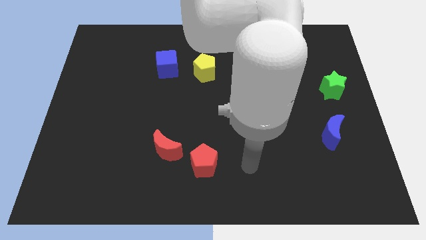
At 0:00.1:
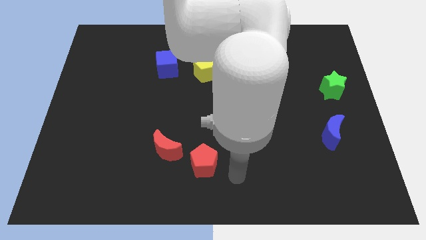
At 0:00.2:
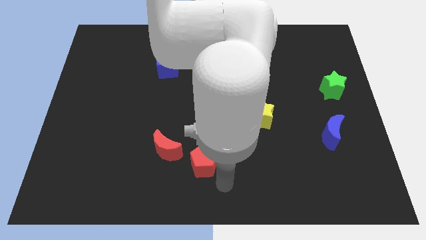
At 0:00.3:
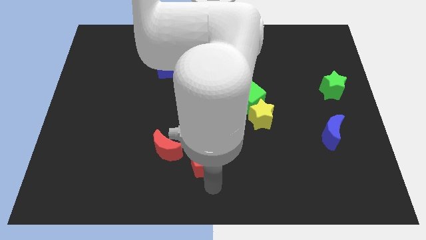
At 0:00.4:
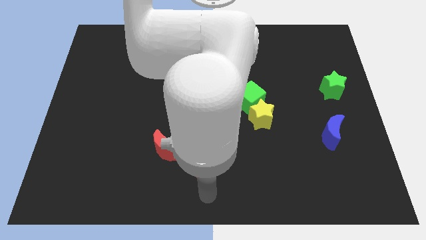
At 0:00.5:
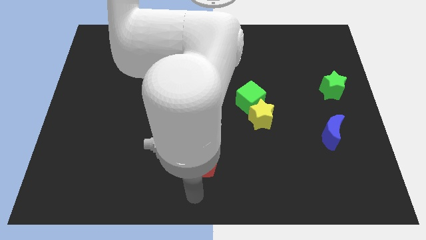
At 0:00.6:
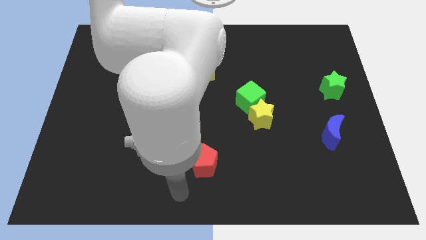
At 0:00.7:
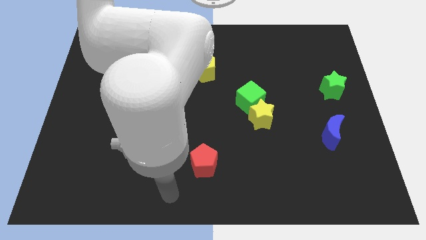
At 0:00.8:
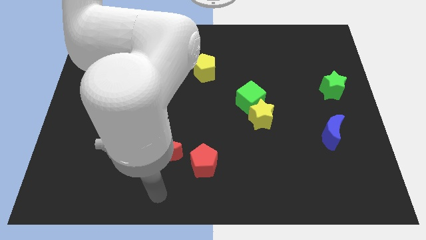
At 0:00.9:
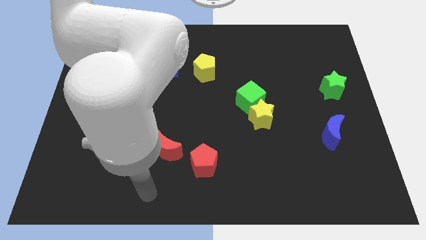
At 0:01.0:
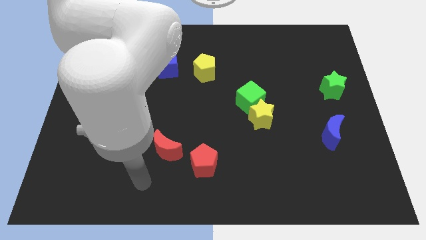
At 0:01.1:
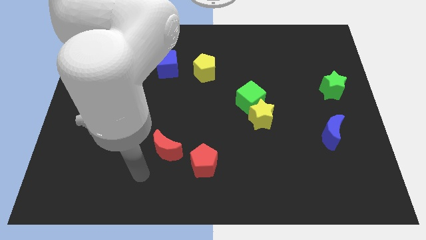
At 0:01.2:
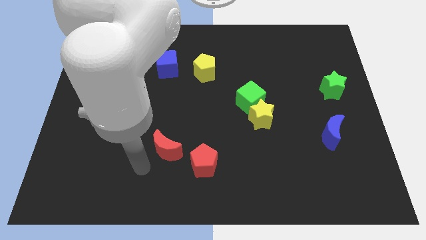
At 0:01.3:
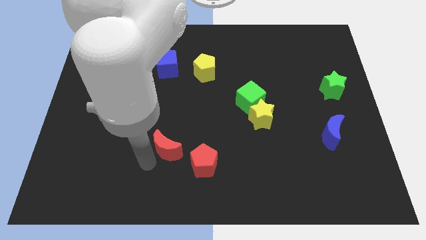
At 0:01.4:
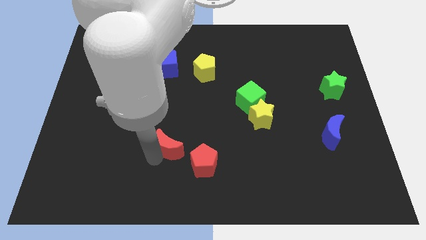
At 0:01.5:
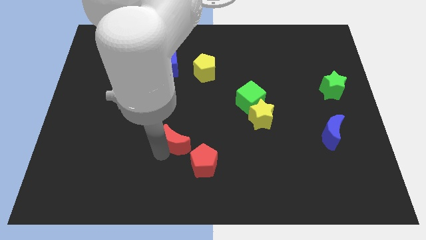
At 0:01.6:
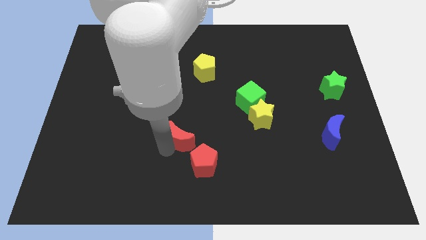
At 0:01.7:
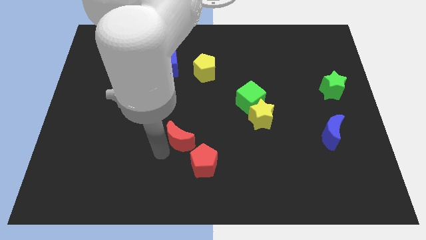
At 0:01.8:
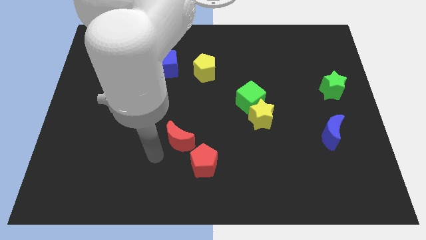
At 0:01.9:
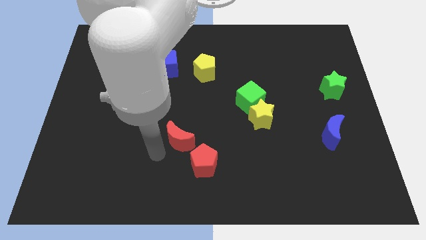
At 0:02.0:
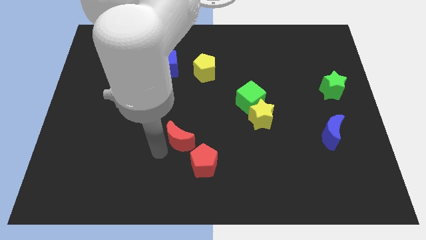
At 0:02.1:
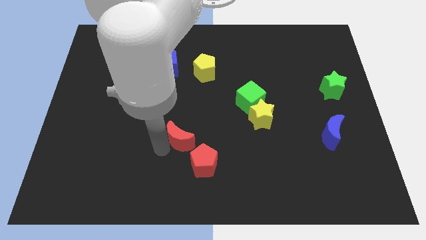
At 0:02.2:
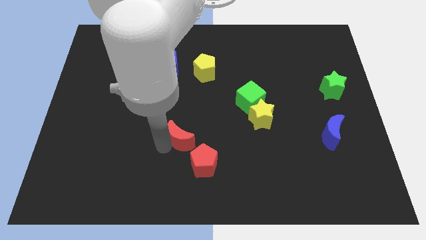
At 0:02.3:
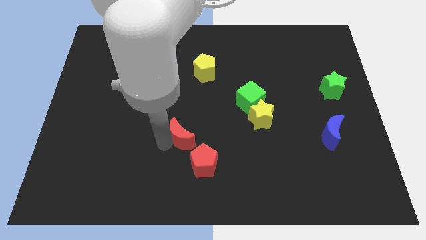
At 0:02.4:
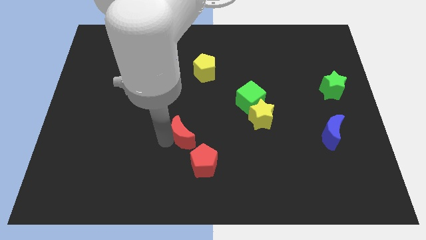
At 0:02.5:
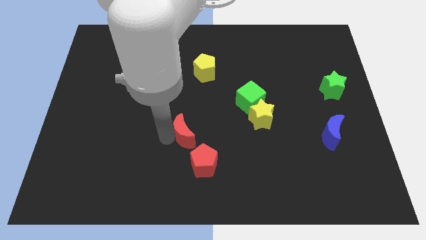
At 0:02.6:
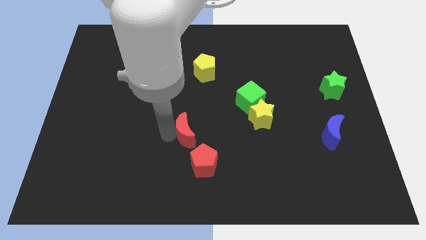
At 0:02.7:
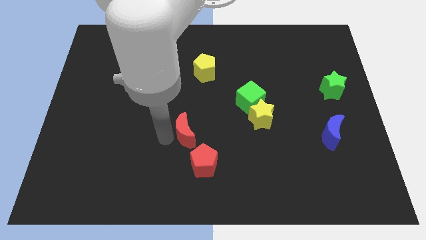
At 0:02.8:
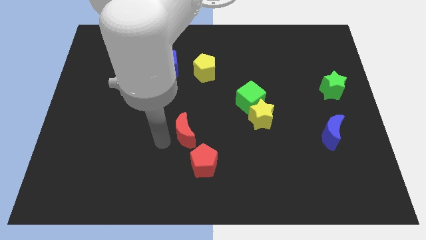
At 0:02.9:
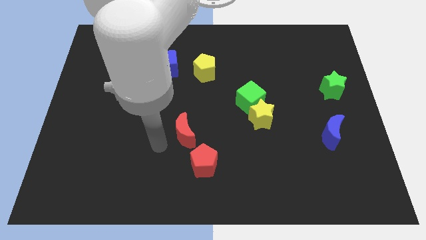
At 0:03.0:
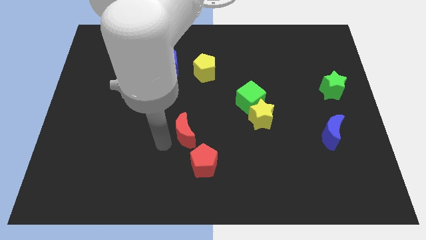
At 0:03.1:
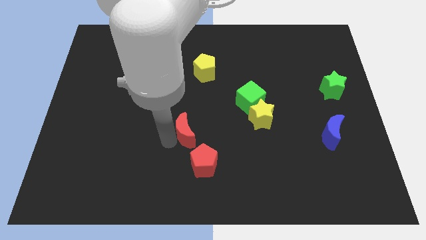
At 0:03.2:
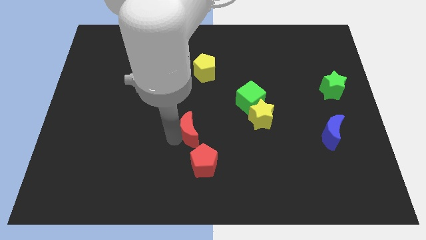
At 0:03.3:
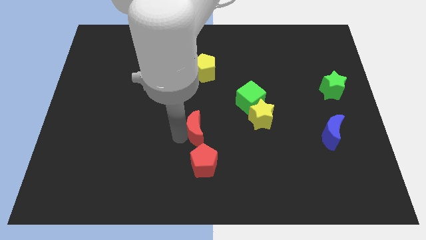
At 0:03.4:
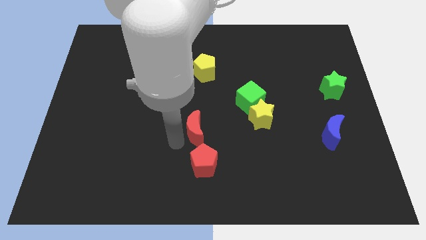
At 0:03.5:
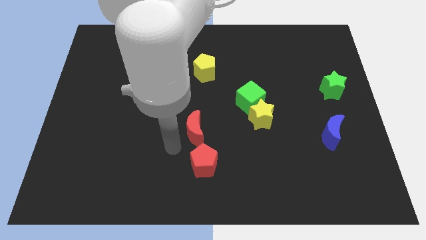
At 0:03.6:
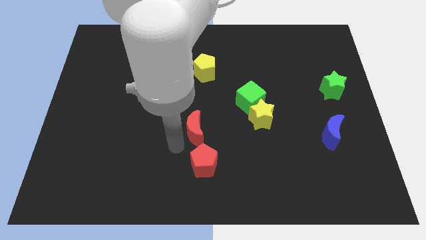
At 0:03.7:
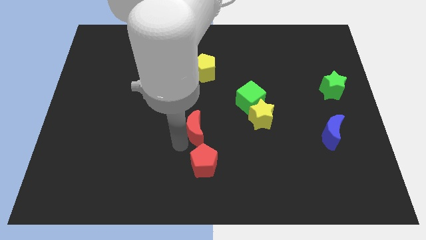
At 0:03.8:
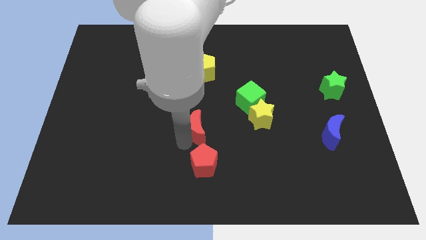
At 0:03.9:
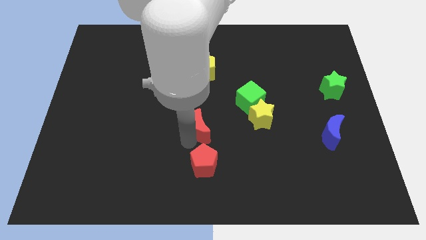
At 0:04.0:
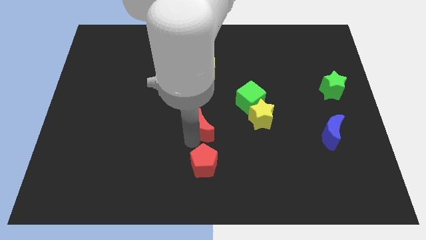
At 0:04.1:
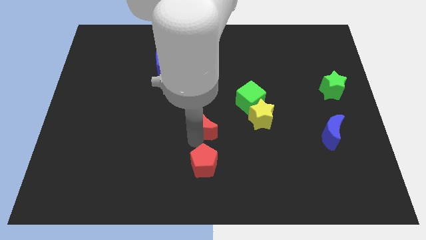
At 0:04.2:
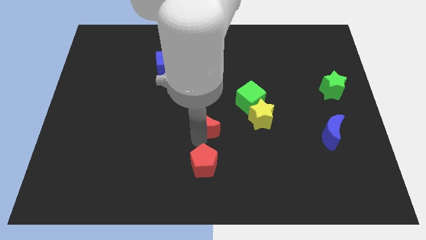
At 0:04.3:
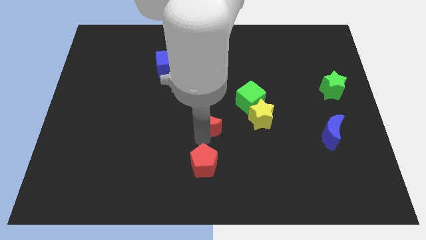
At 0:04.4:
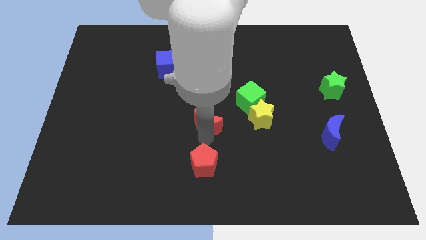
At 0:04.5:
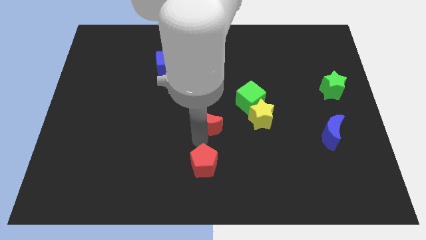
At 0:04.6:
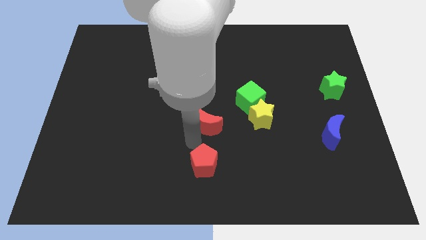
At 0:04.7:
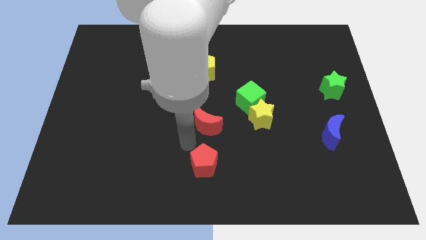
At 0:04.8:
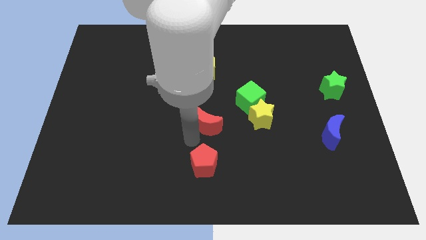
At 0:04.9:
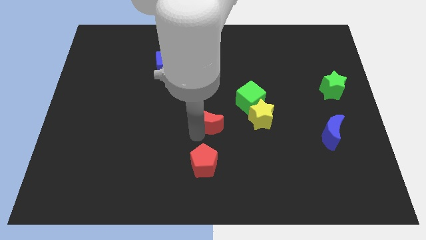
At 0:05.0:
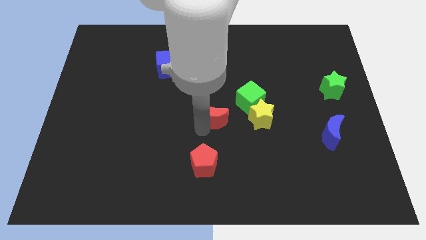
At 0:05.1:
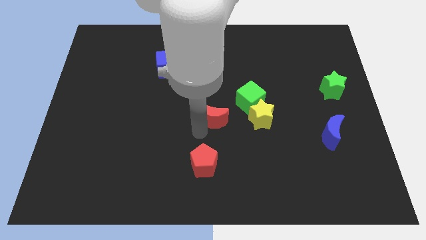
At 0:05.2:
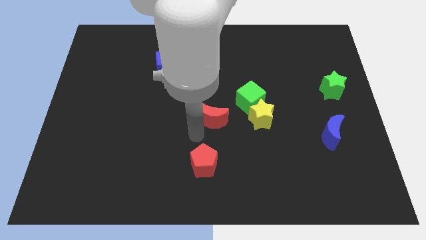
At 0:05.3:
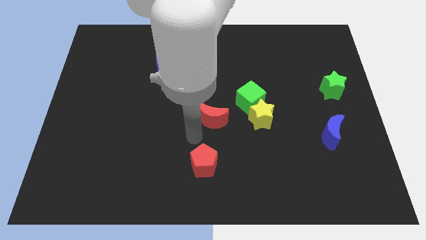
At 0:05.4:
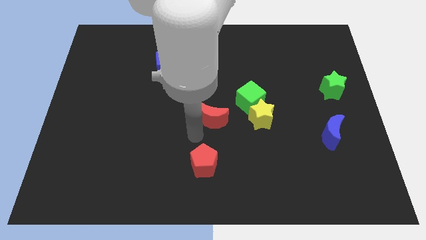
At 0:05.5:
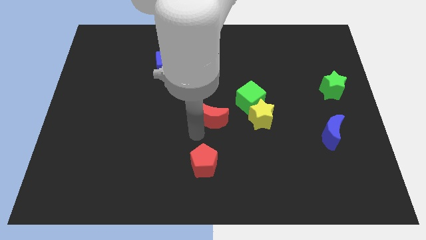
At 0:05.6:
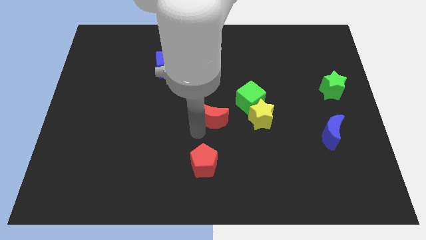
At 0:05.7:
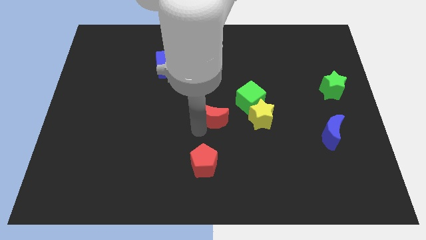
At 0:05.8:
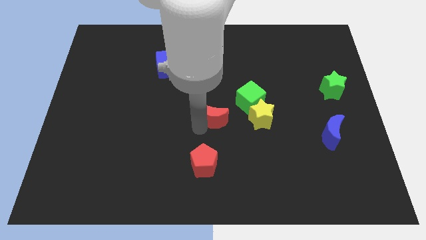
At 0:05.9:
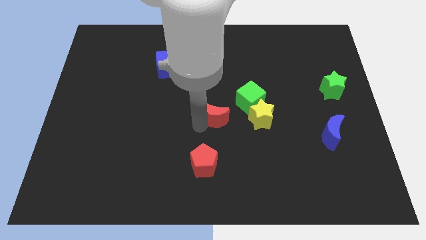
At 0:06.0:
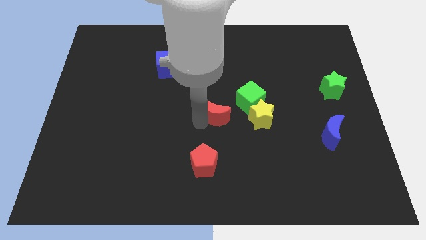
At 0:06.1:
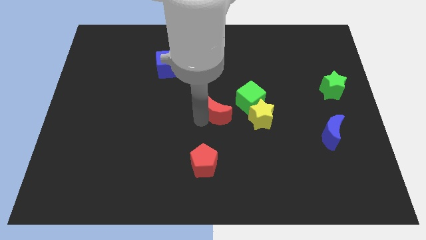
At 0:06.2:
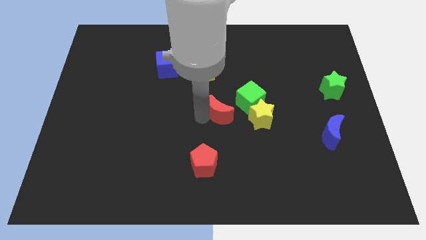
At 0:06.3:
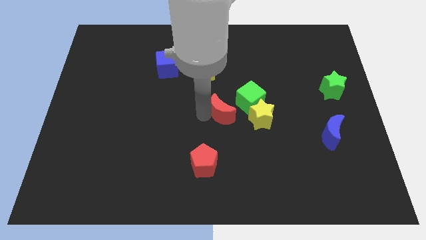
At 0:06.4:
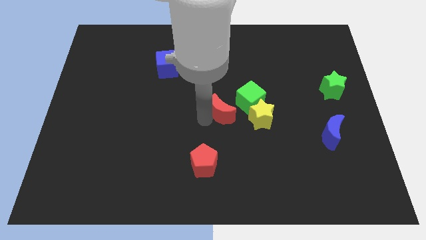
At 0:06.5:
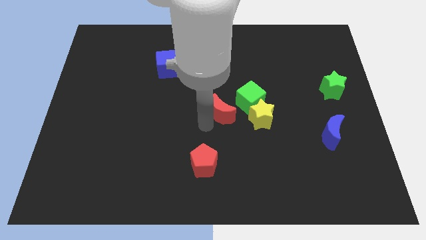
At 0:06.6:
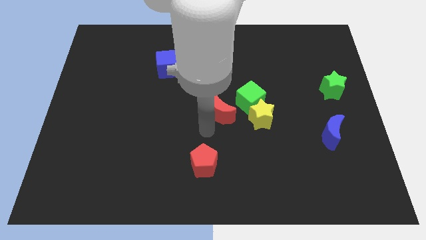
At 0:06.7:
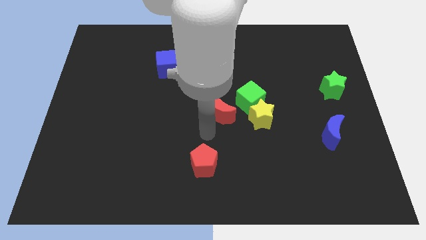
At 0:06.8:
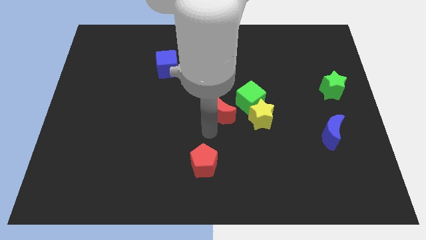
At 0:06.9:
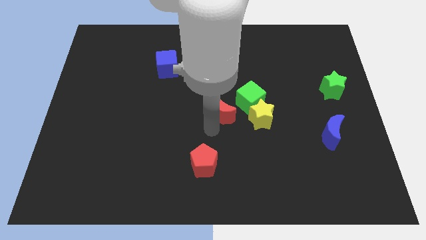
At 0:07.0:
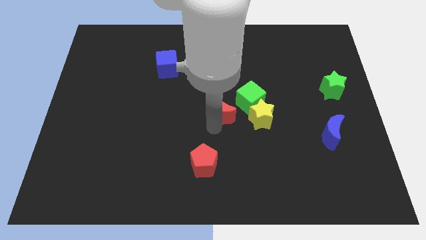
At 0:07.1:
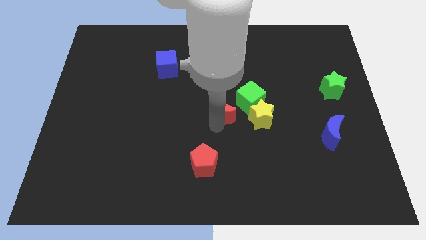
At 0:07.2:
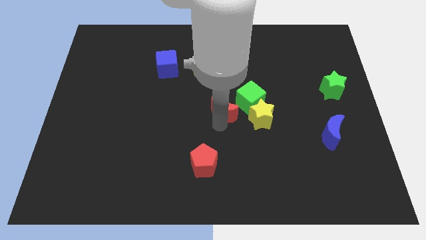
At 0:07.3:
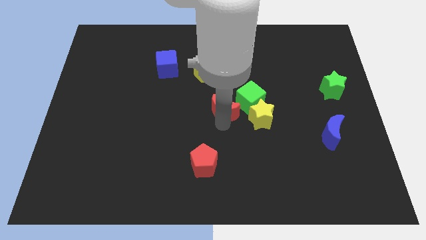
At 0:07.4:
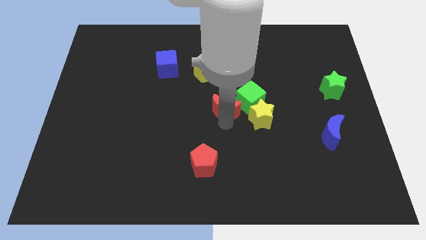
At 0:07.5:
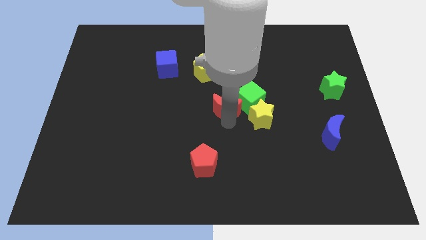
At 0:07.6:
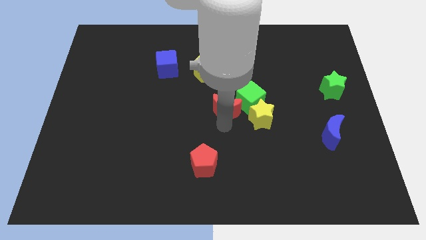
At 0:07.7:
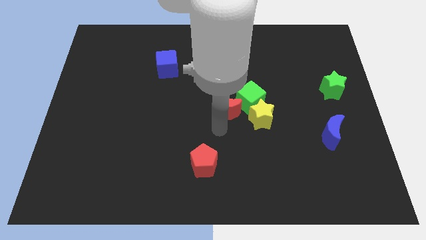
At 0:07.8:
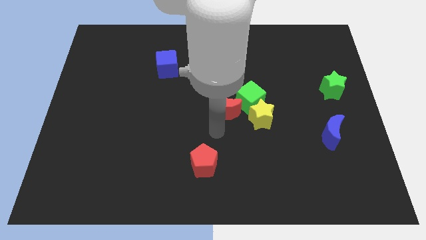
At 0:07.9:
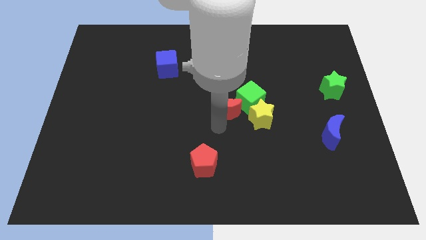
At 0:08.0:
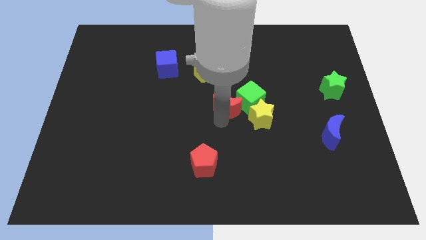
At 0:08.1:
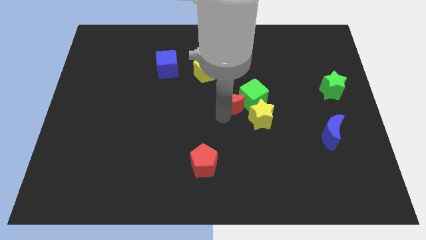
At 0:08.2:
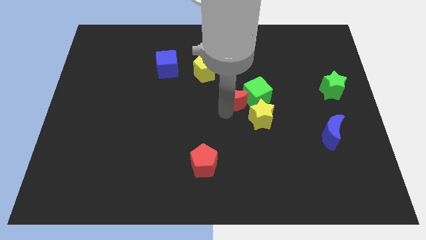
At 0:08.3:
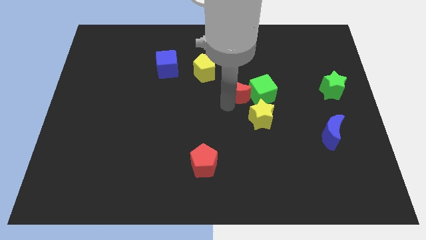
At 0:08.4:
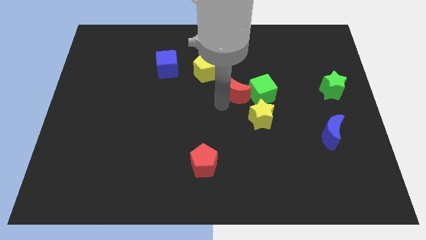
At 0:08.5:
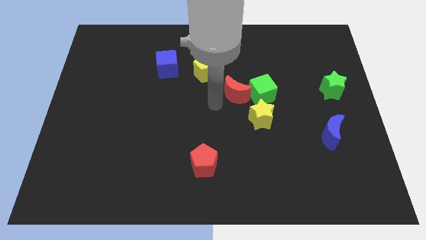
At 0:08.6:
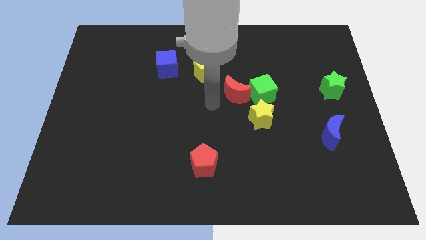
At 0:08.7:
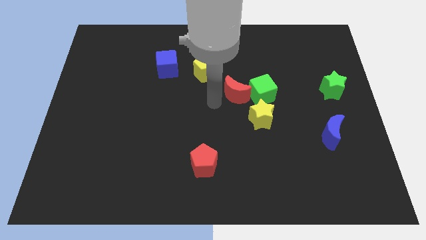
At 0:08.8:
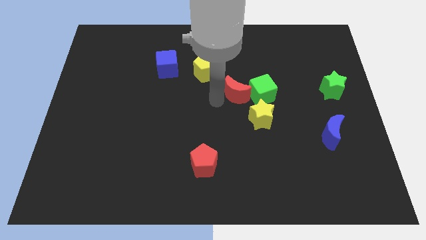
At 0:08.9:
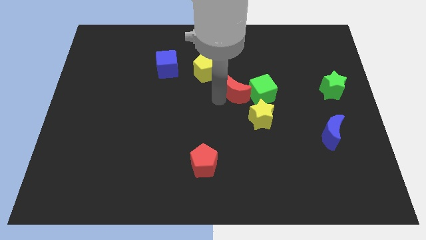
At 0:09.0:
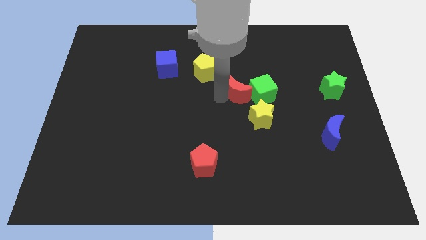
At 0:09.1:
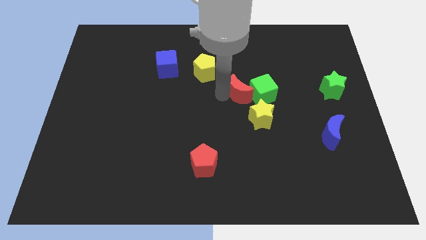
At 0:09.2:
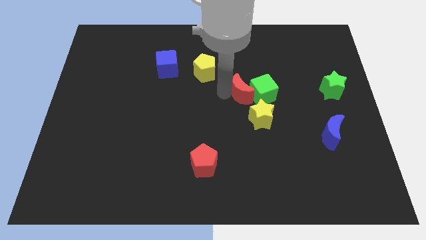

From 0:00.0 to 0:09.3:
put the red moon to the top side of the yellow star
